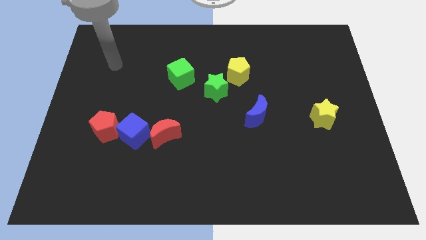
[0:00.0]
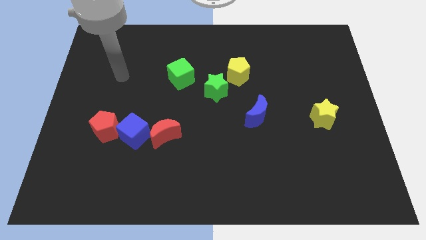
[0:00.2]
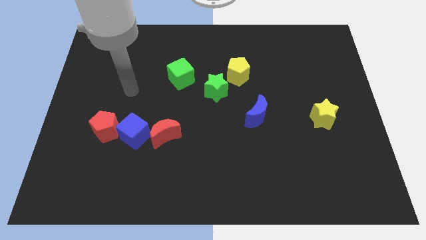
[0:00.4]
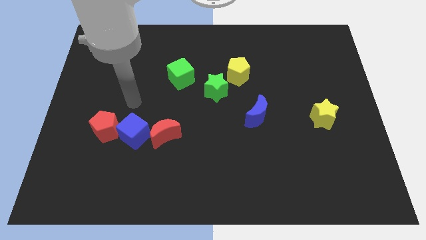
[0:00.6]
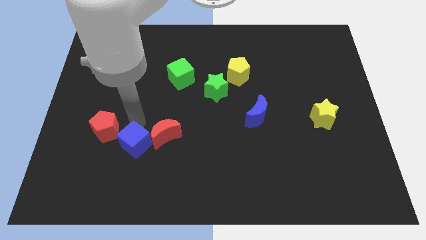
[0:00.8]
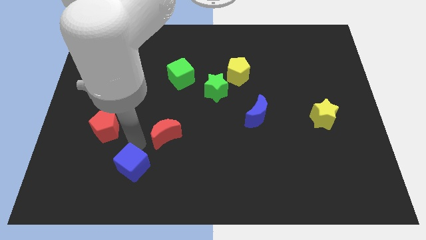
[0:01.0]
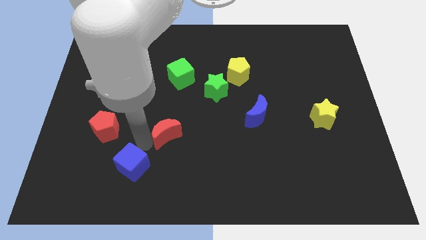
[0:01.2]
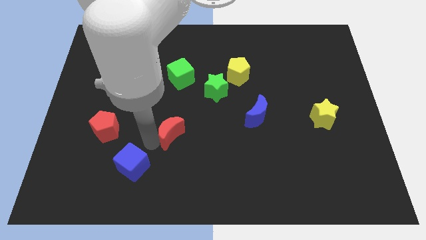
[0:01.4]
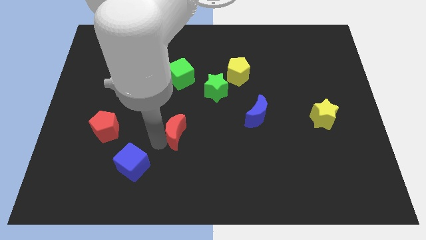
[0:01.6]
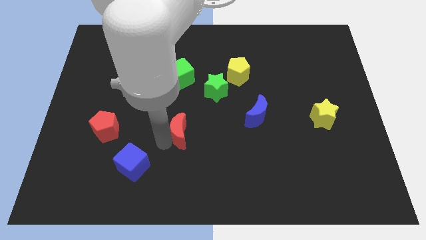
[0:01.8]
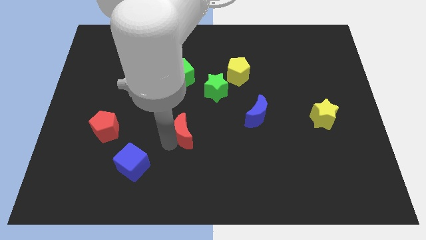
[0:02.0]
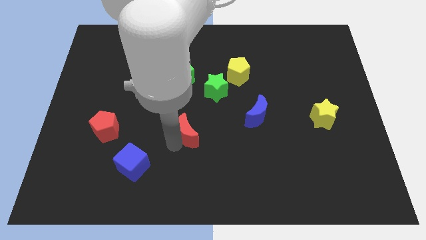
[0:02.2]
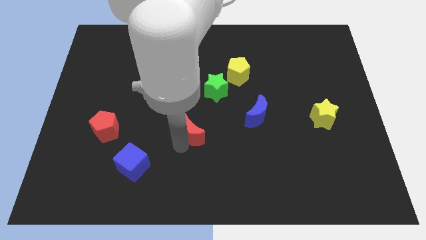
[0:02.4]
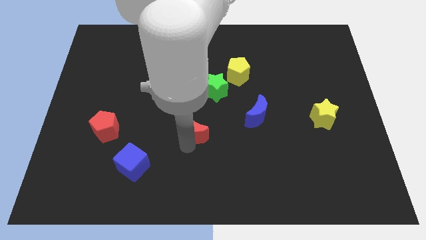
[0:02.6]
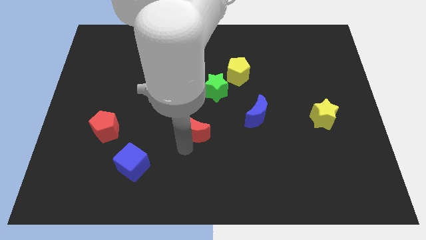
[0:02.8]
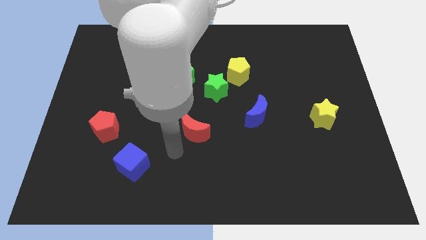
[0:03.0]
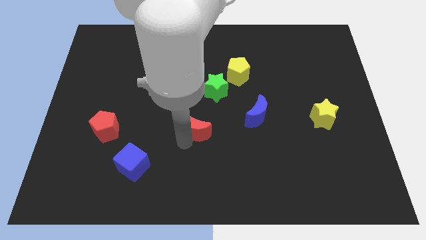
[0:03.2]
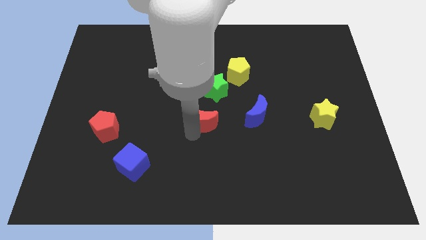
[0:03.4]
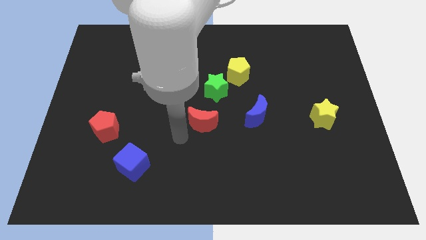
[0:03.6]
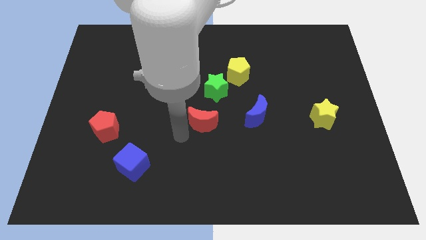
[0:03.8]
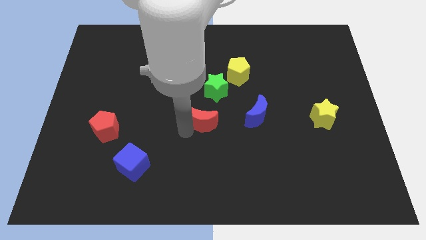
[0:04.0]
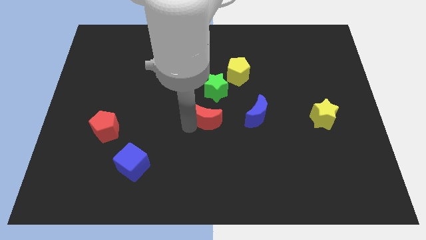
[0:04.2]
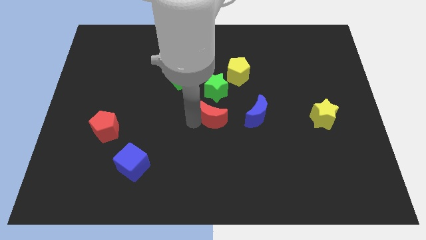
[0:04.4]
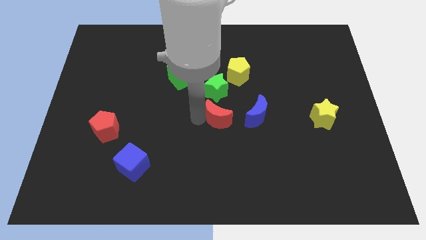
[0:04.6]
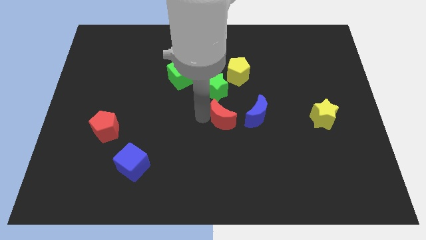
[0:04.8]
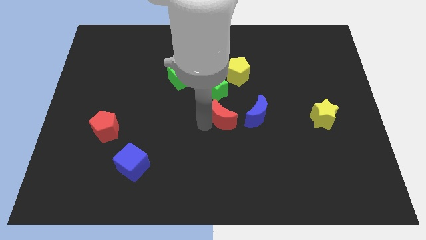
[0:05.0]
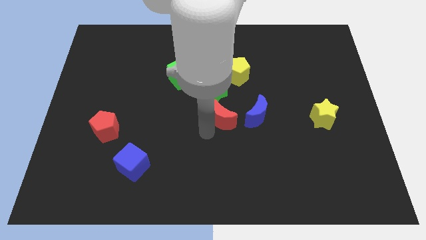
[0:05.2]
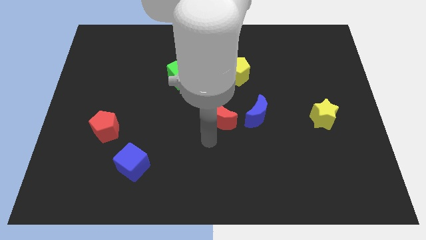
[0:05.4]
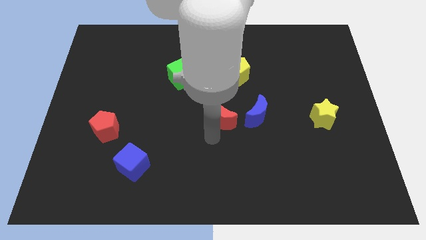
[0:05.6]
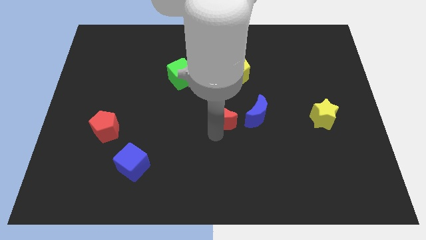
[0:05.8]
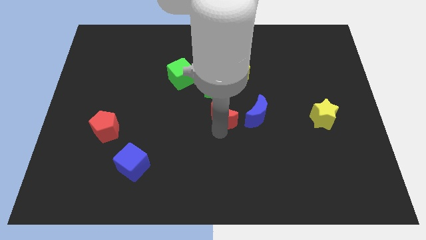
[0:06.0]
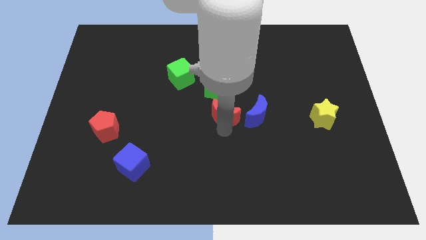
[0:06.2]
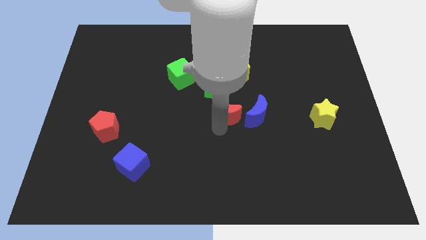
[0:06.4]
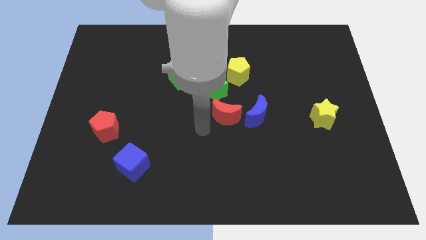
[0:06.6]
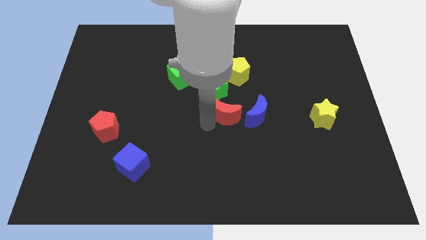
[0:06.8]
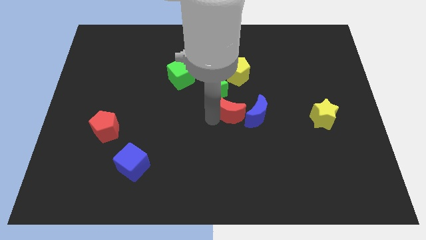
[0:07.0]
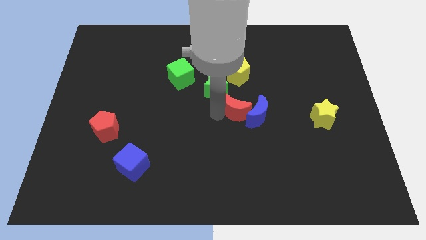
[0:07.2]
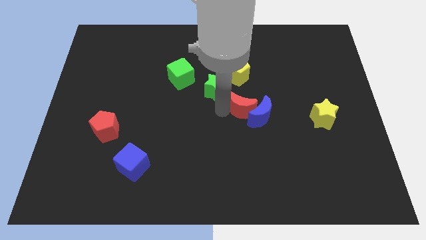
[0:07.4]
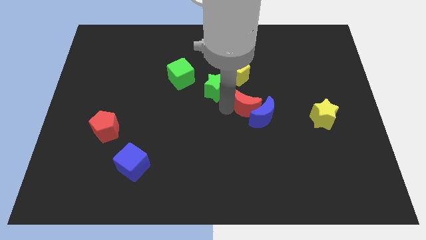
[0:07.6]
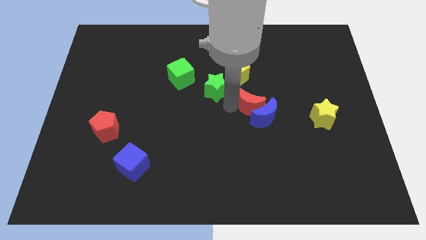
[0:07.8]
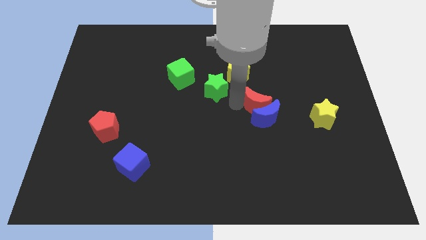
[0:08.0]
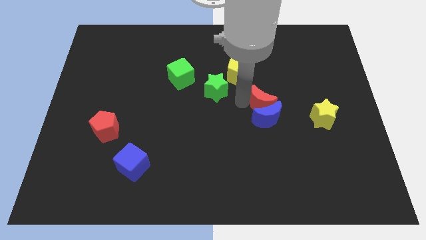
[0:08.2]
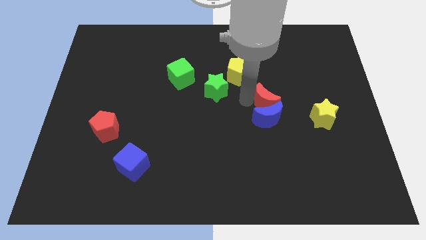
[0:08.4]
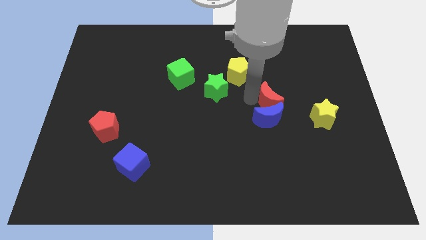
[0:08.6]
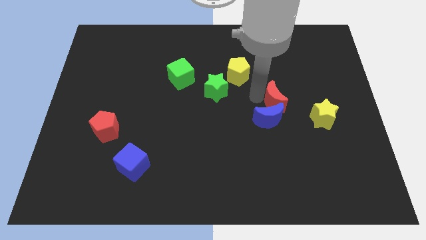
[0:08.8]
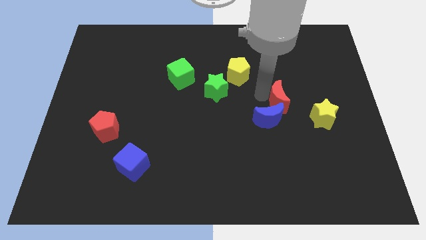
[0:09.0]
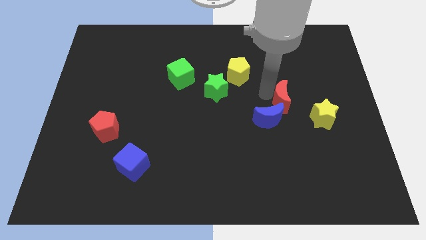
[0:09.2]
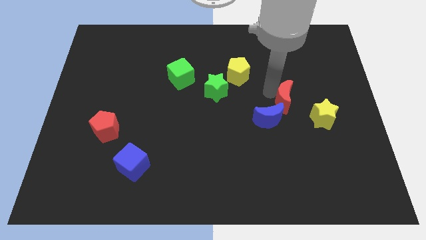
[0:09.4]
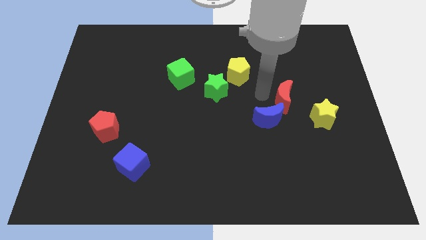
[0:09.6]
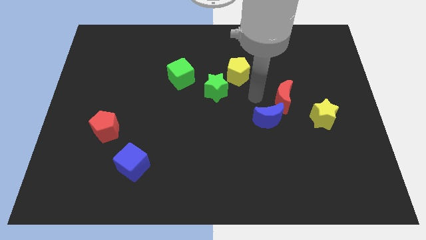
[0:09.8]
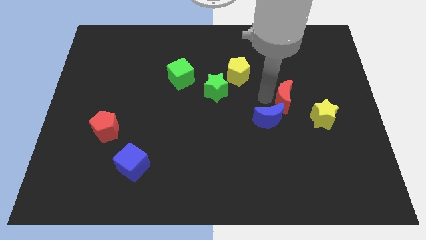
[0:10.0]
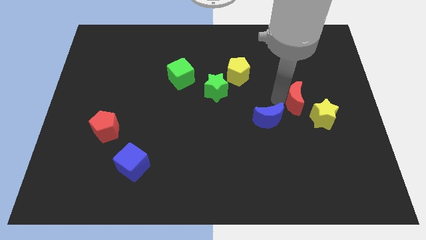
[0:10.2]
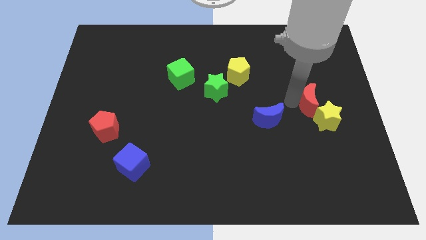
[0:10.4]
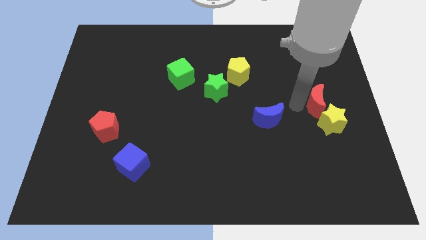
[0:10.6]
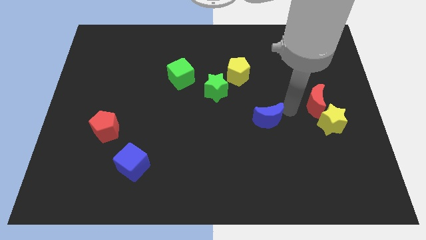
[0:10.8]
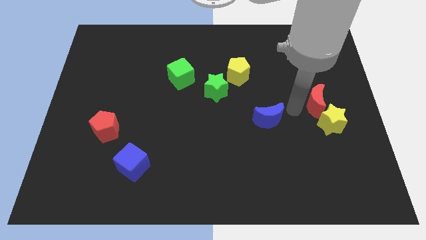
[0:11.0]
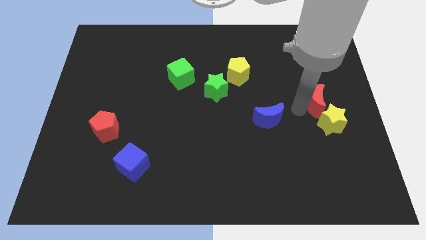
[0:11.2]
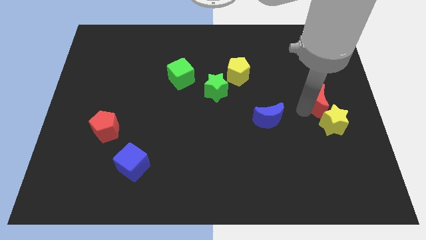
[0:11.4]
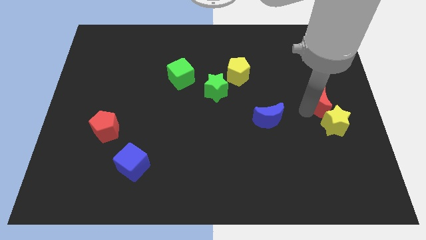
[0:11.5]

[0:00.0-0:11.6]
slide the red moon to the right side

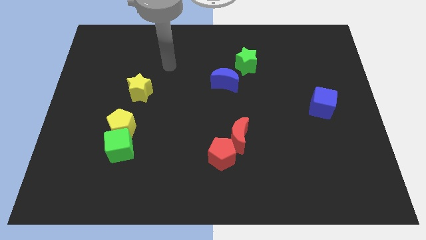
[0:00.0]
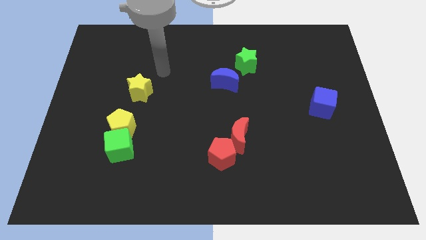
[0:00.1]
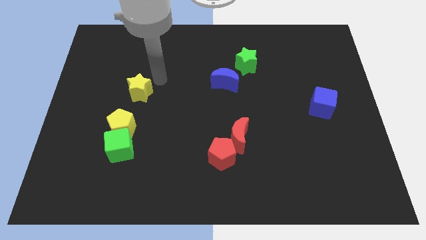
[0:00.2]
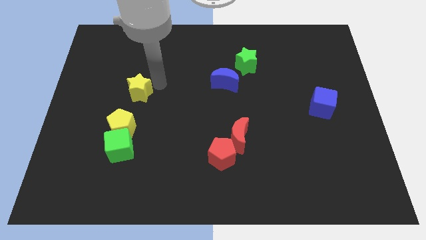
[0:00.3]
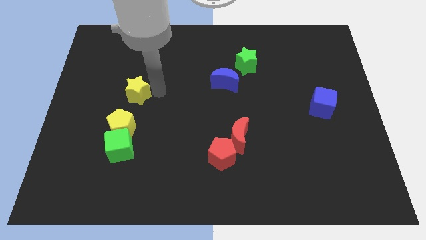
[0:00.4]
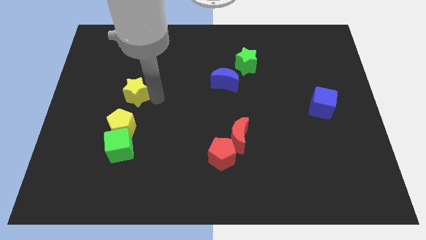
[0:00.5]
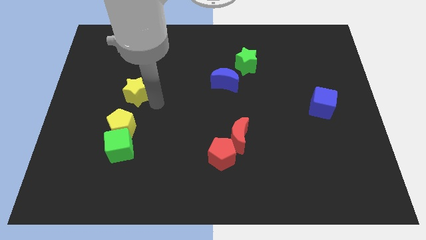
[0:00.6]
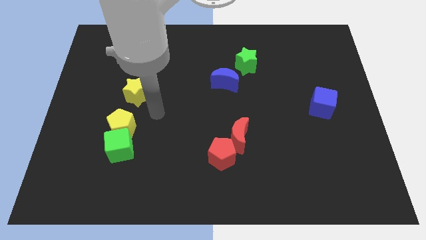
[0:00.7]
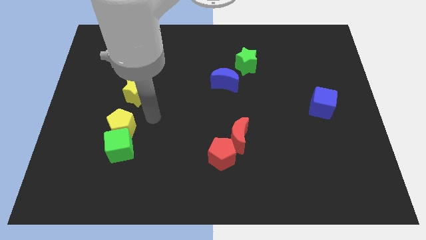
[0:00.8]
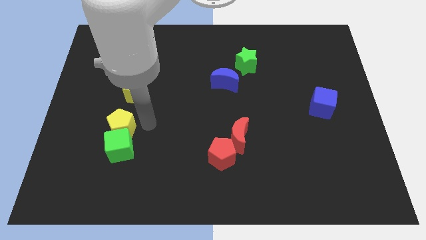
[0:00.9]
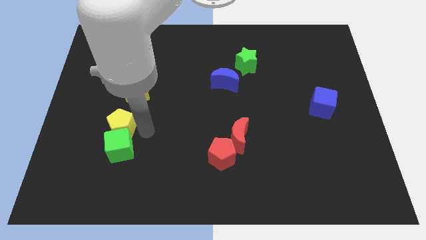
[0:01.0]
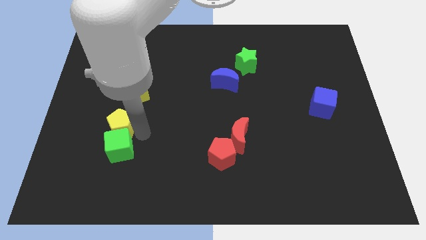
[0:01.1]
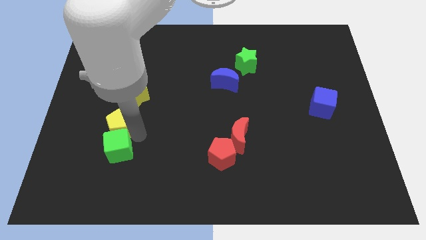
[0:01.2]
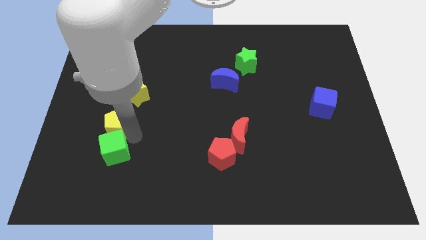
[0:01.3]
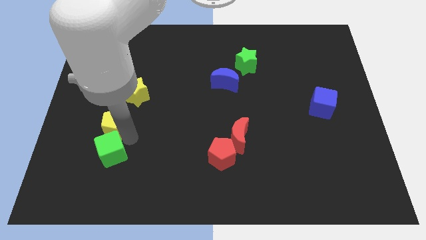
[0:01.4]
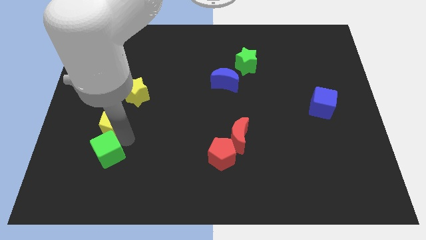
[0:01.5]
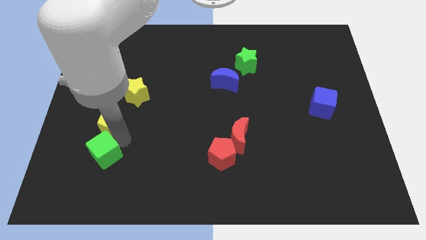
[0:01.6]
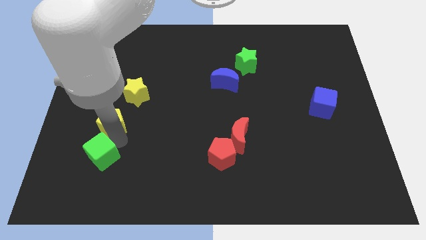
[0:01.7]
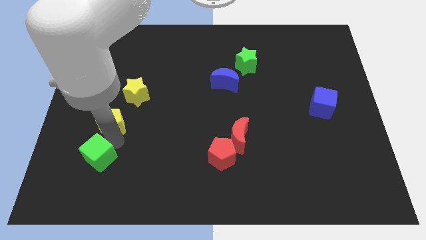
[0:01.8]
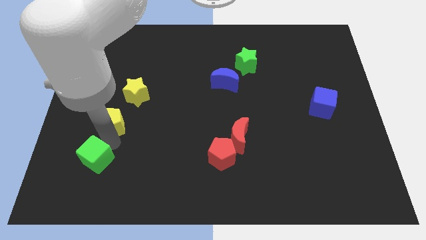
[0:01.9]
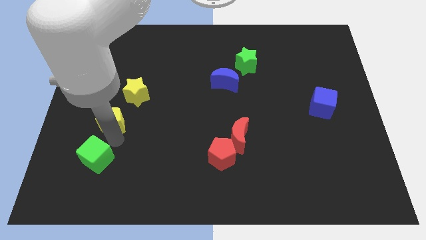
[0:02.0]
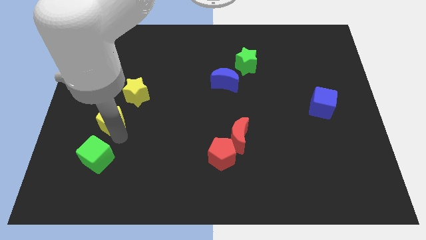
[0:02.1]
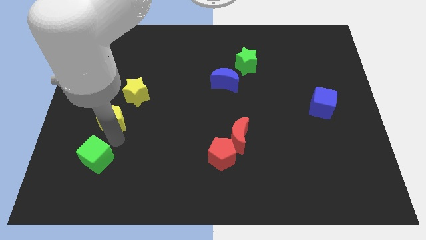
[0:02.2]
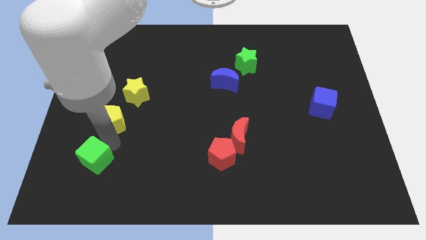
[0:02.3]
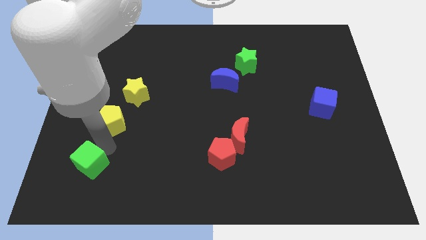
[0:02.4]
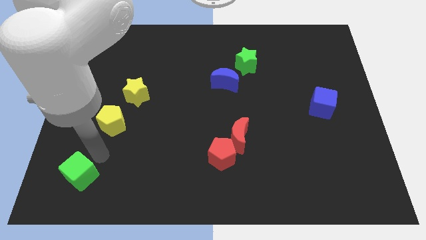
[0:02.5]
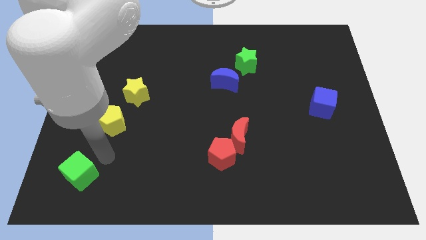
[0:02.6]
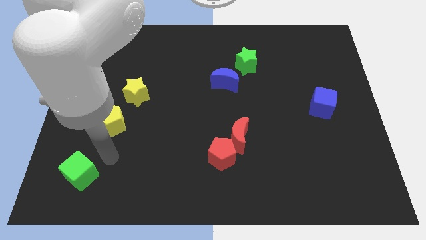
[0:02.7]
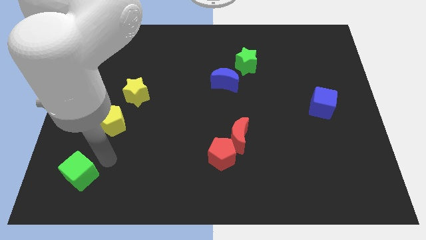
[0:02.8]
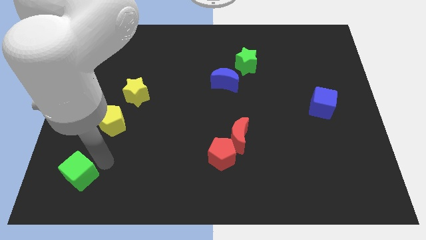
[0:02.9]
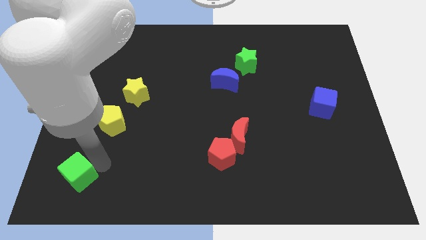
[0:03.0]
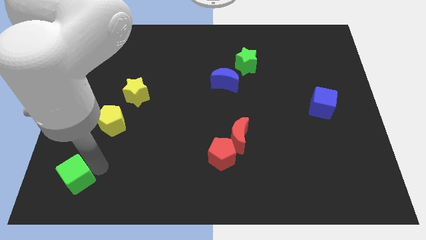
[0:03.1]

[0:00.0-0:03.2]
slide the green cube to the lower left corner
